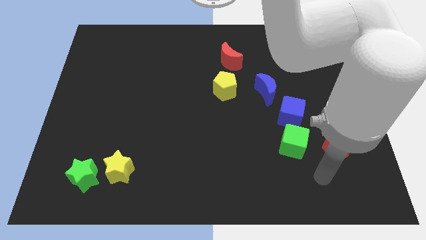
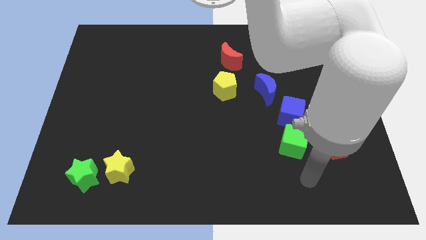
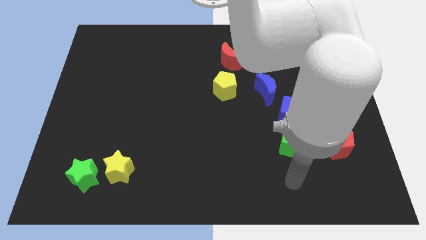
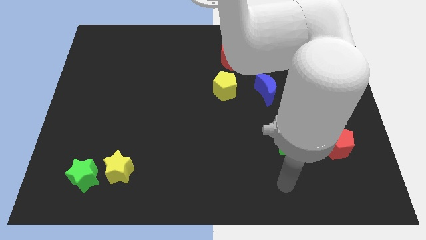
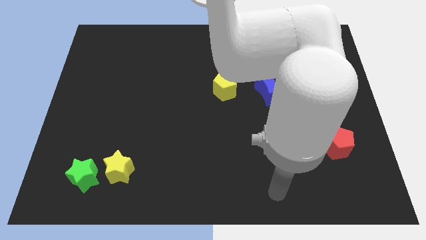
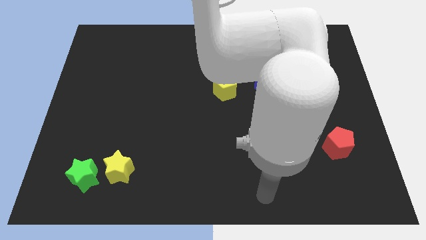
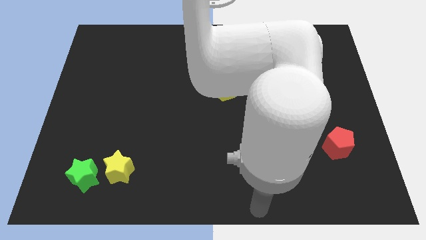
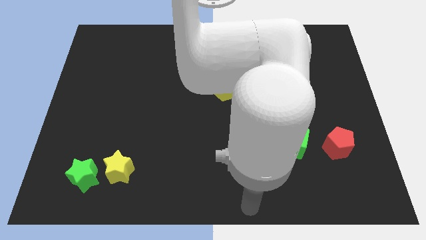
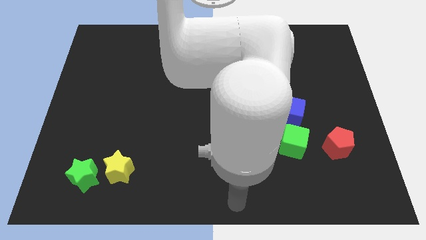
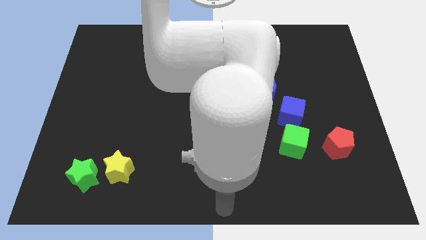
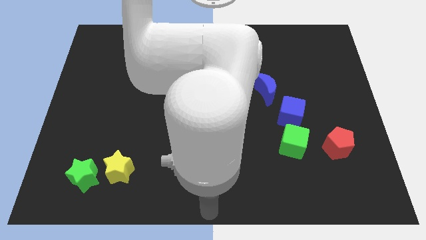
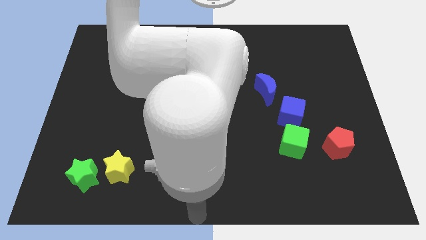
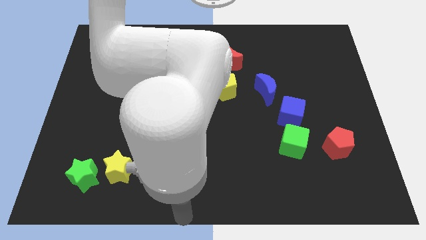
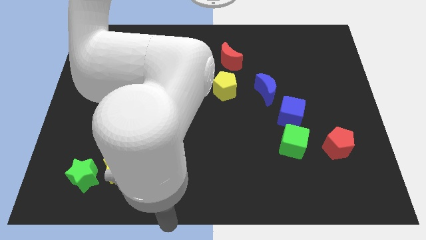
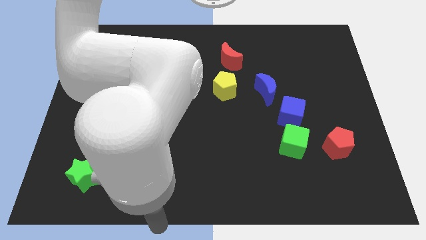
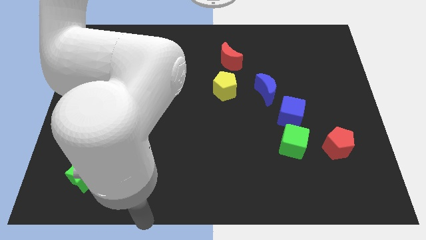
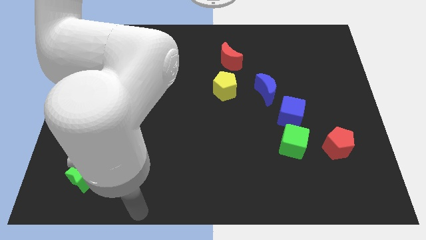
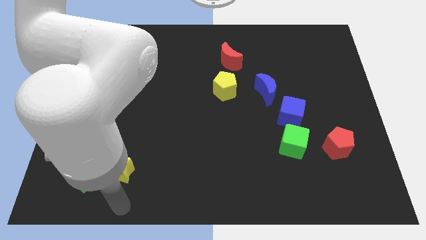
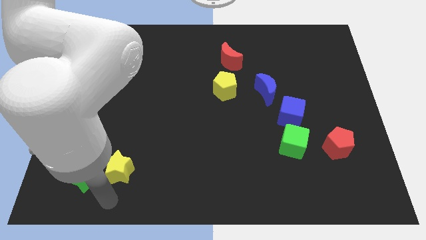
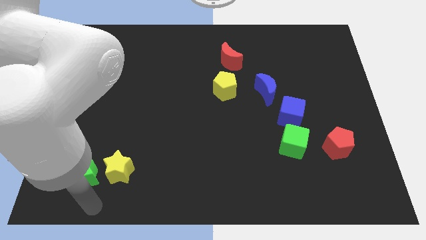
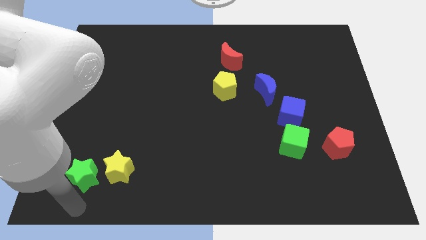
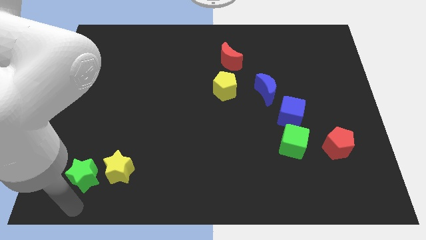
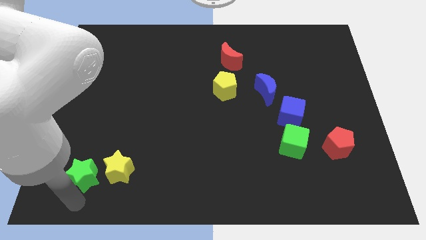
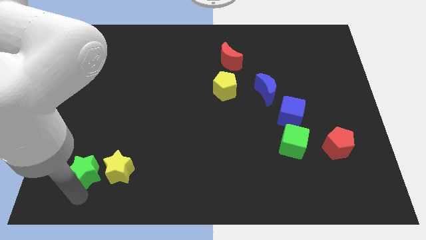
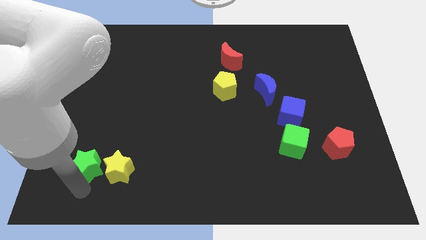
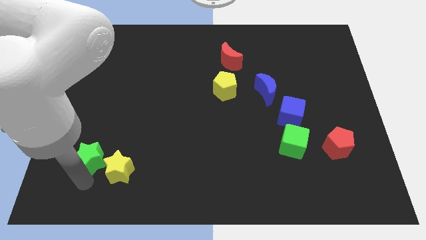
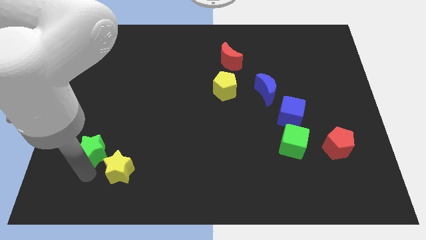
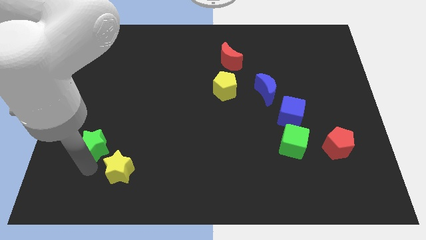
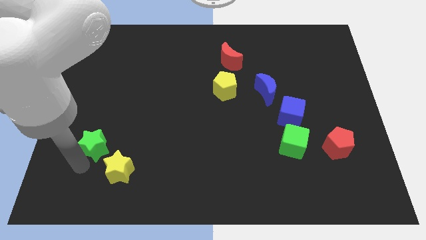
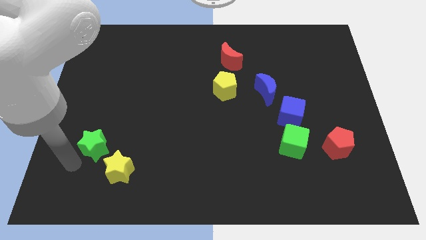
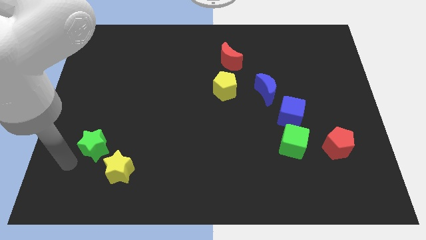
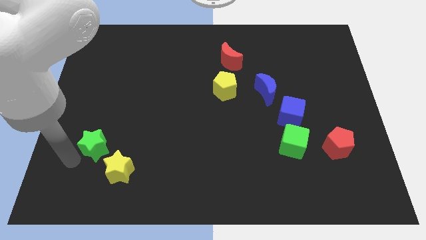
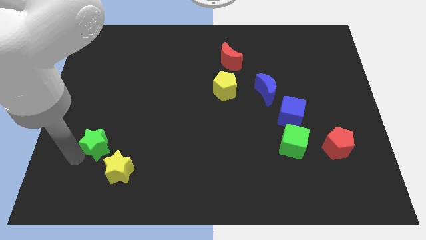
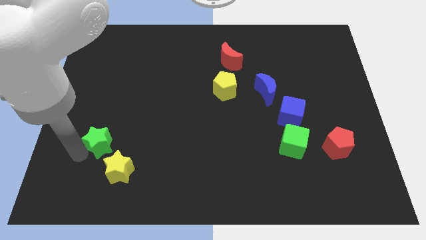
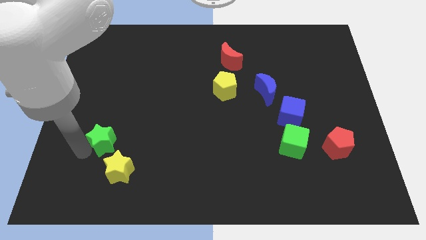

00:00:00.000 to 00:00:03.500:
move the green star upwards and right a little

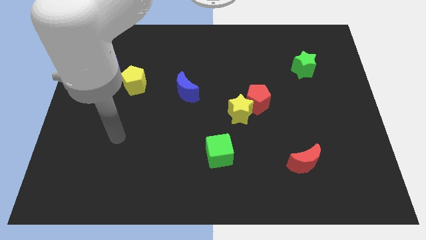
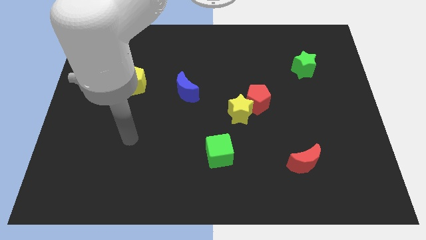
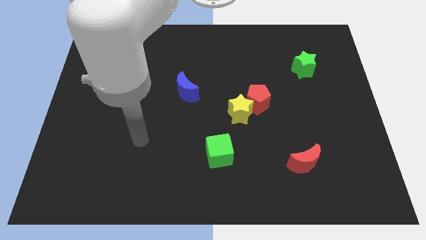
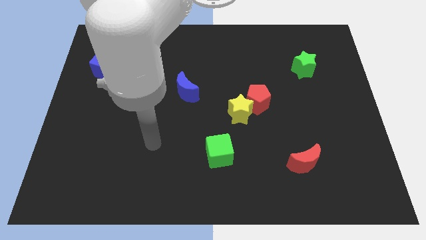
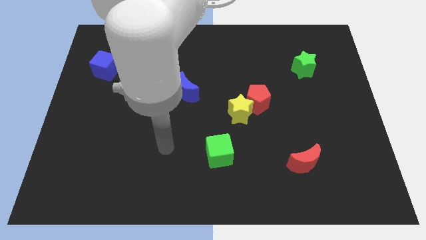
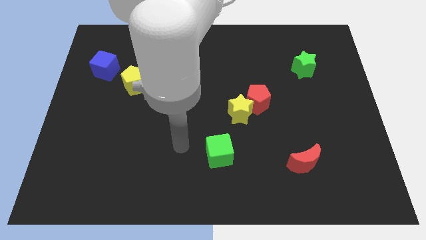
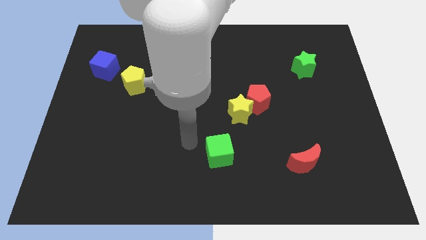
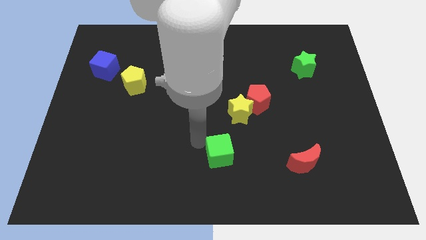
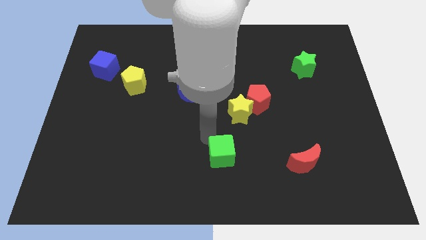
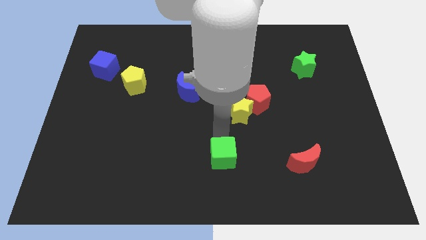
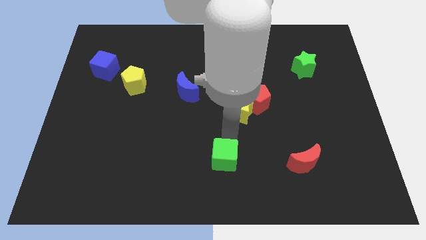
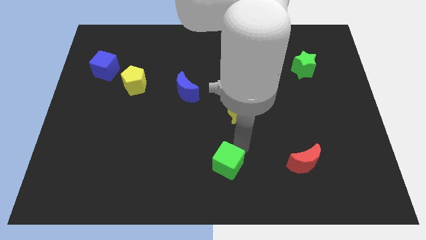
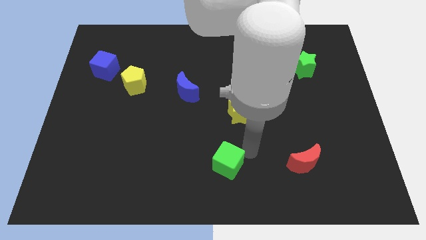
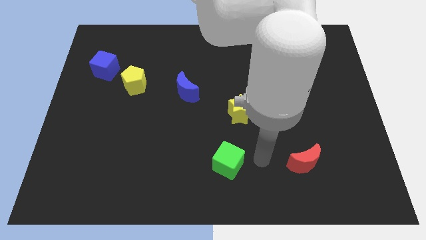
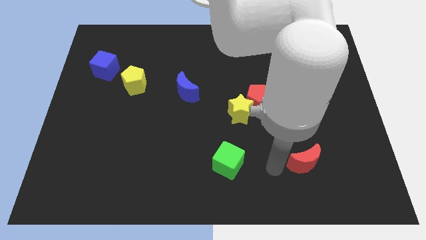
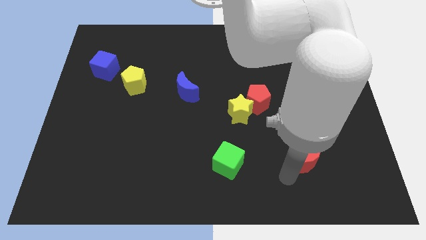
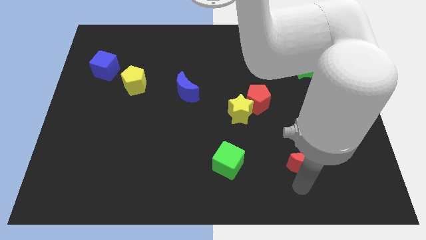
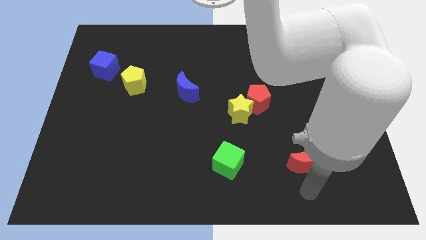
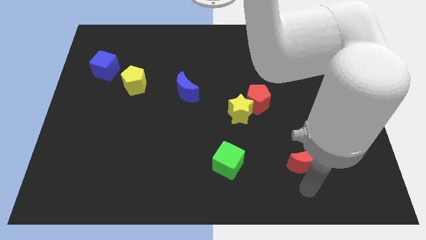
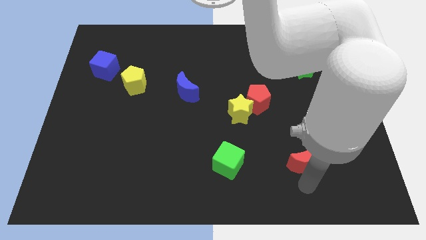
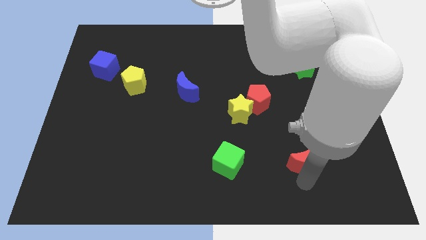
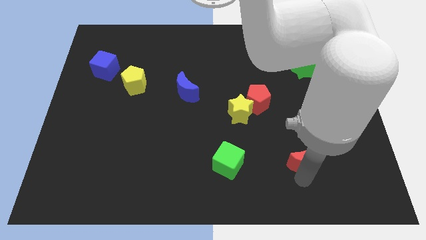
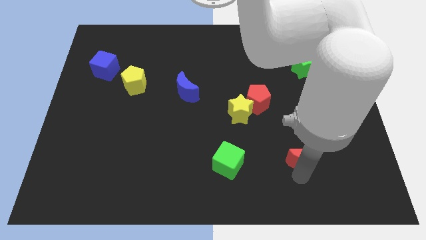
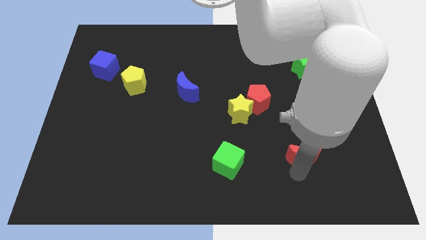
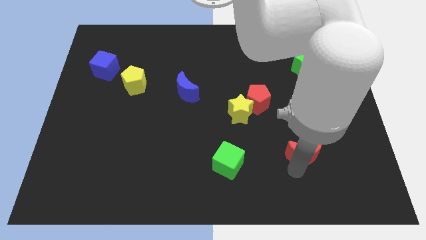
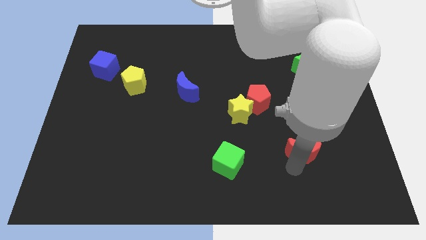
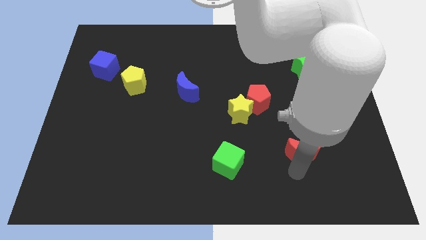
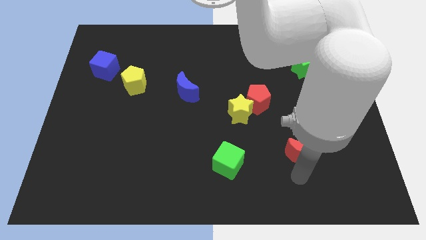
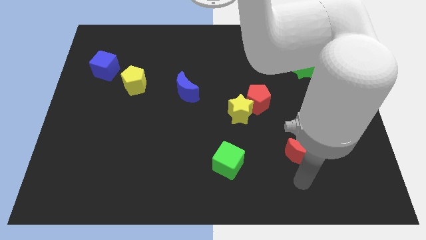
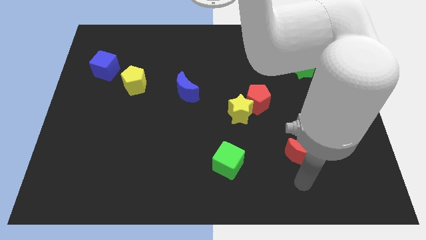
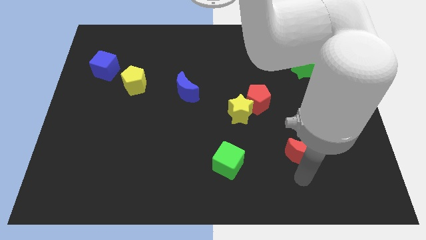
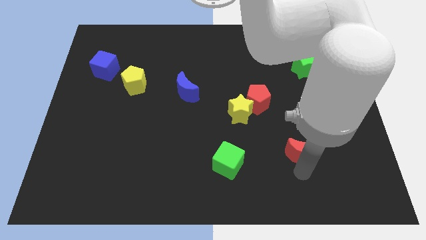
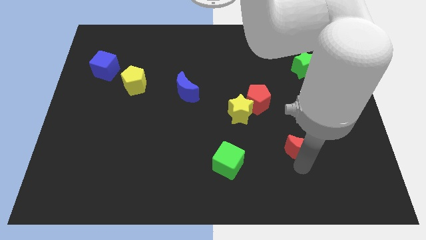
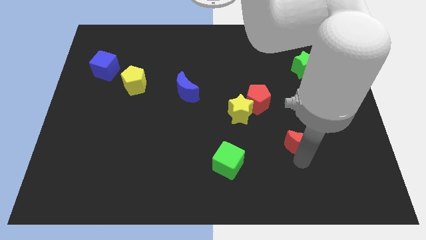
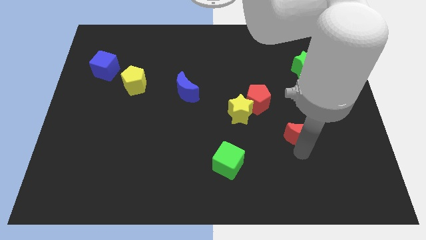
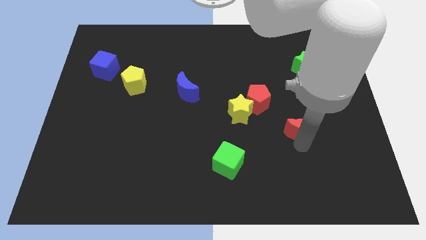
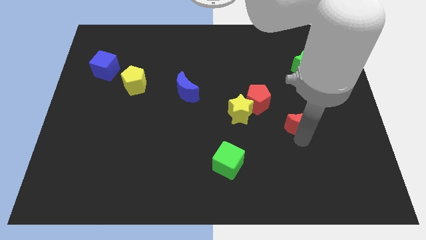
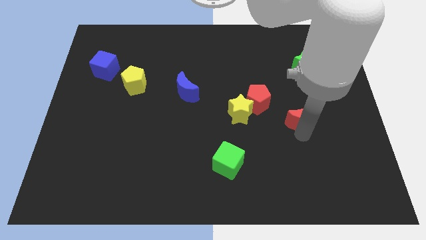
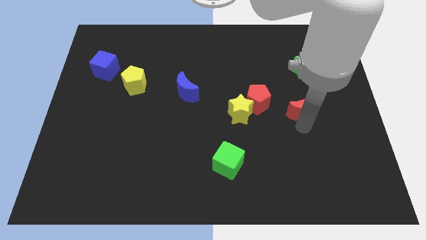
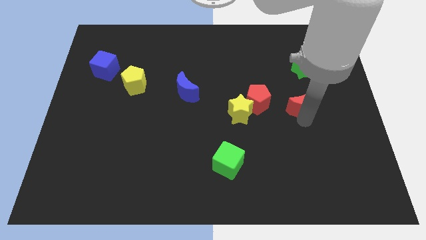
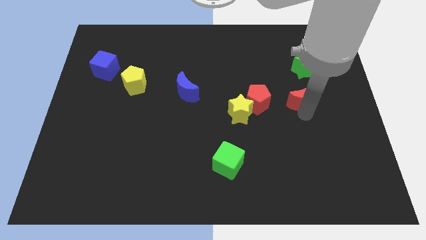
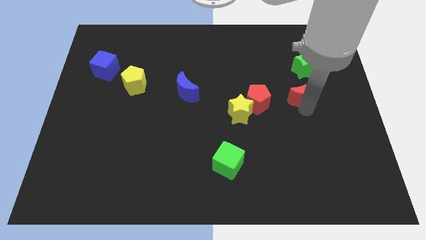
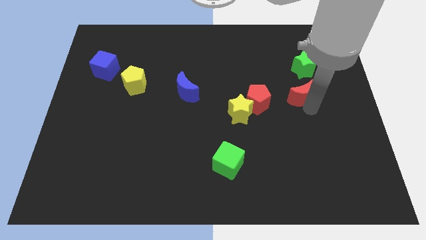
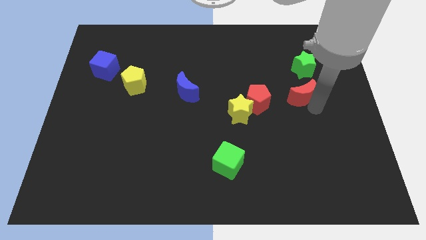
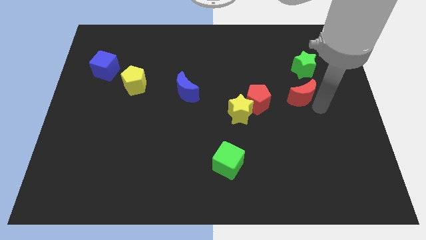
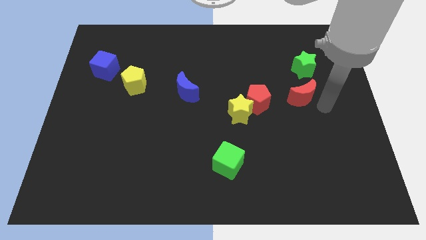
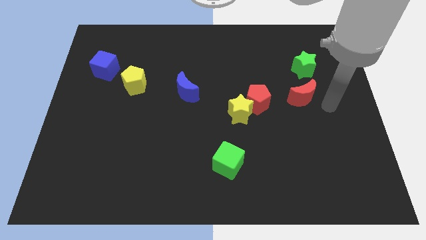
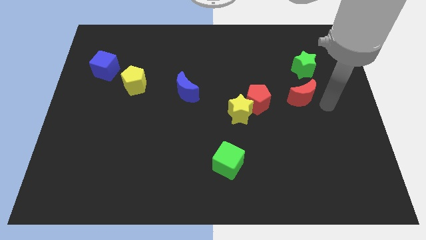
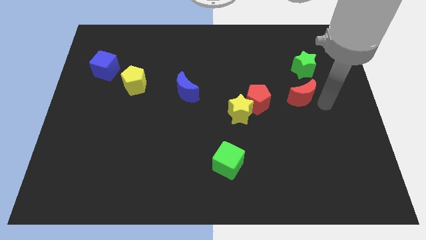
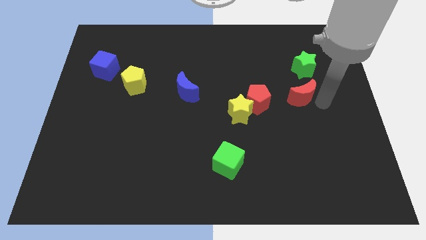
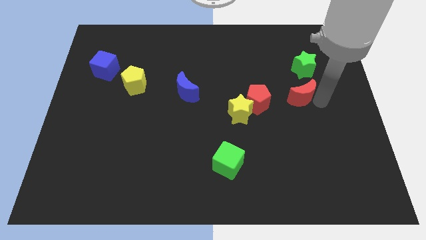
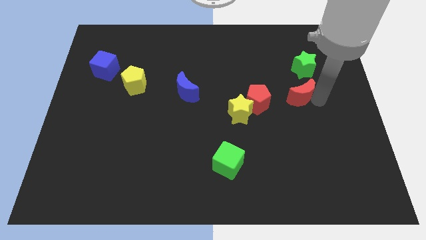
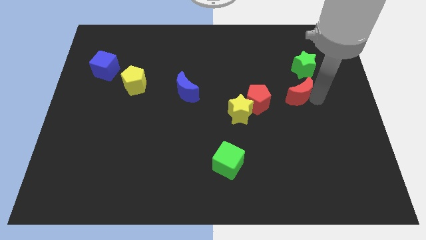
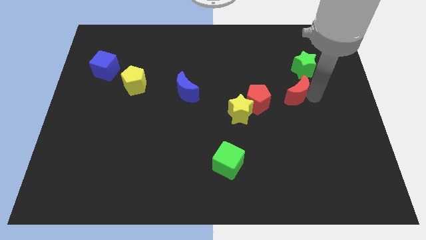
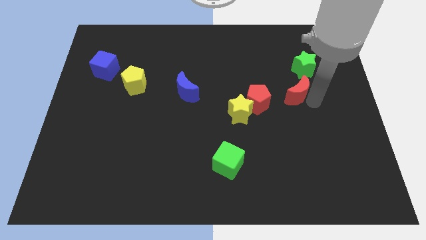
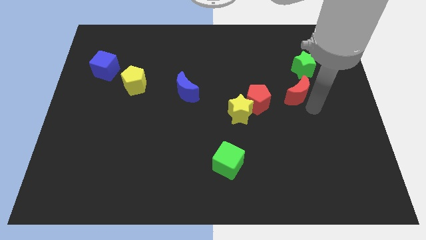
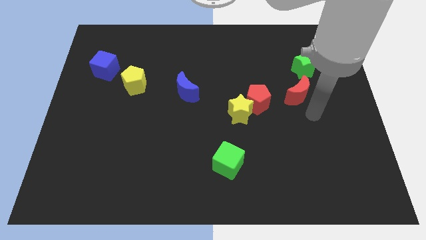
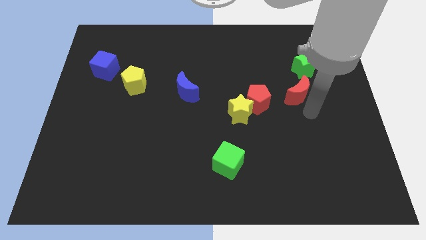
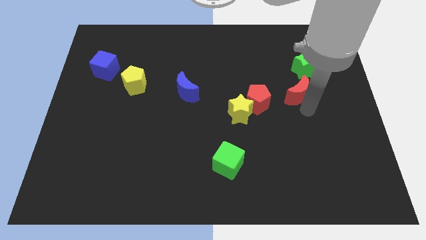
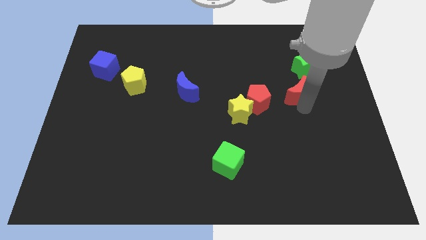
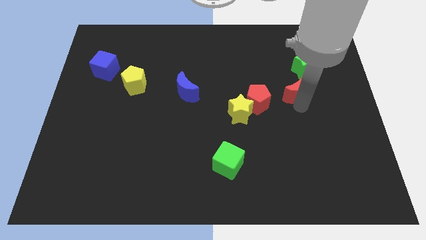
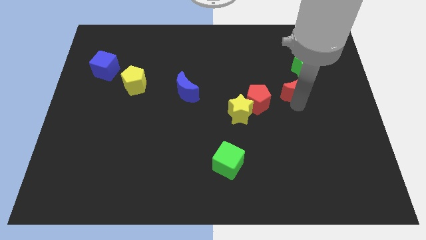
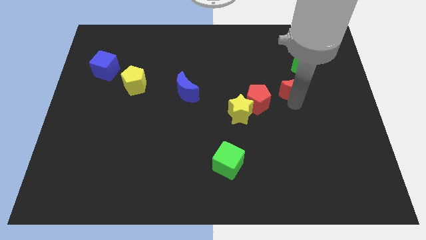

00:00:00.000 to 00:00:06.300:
move the red moon up
